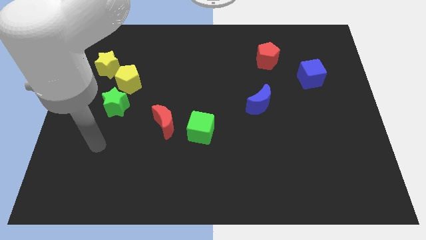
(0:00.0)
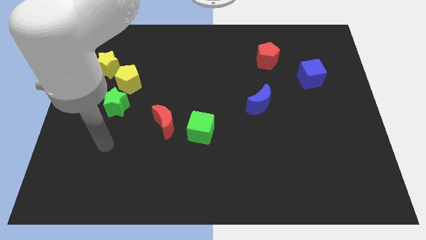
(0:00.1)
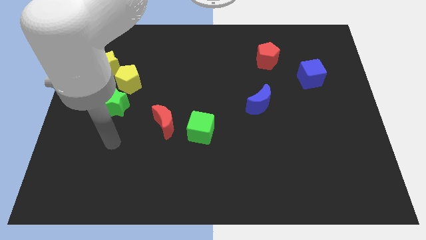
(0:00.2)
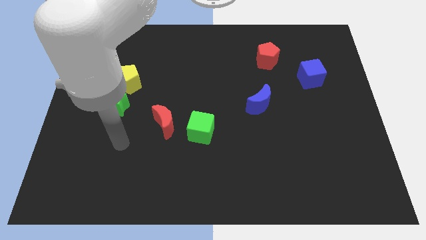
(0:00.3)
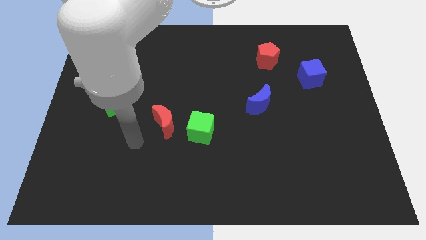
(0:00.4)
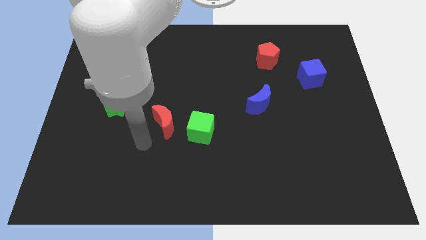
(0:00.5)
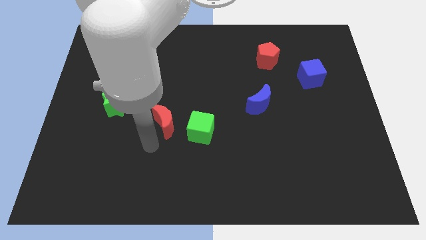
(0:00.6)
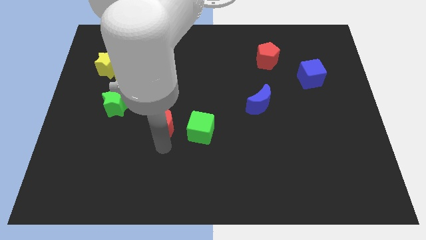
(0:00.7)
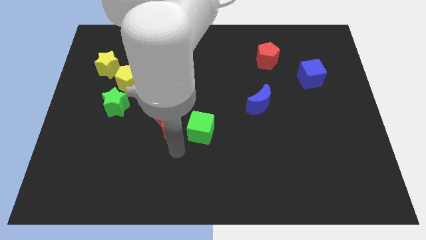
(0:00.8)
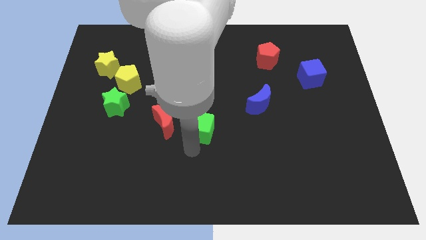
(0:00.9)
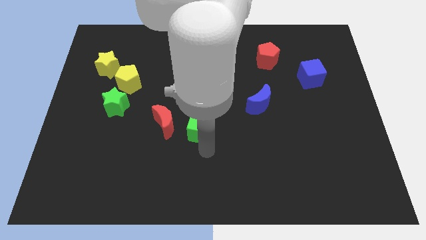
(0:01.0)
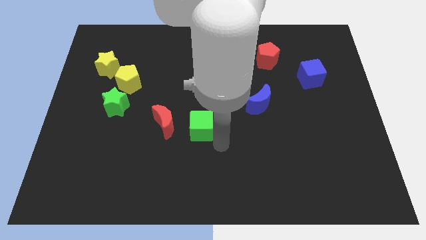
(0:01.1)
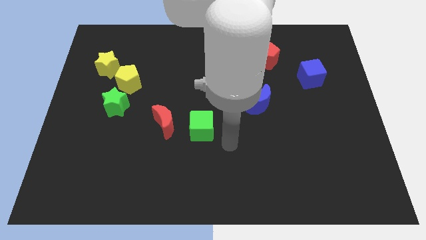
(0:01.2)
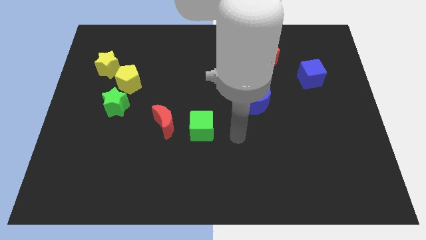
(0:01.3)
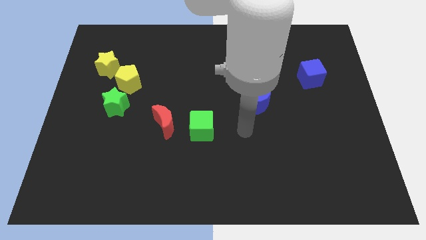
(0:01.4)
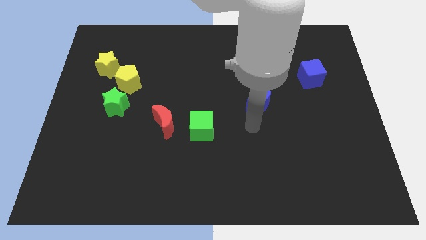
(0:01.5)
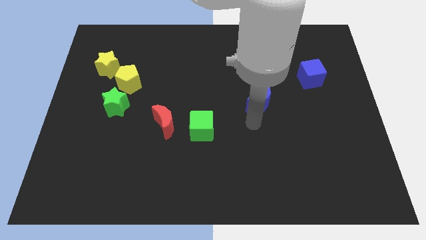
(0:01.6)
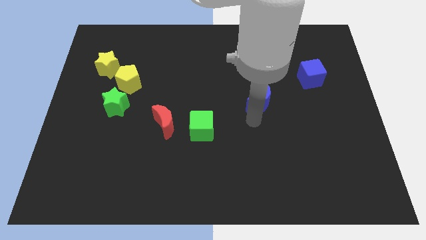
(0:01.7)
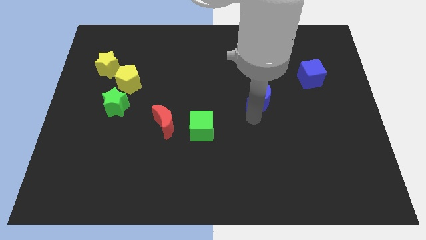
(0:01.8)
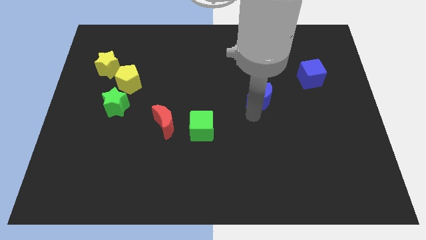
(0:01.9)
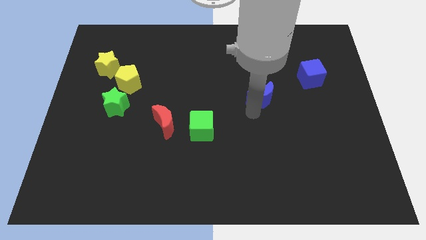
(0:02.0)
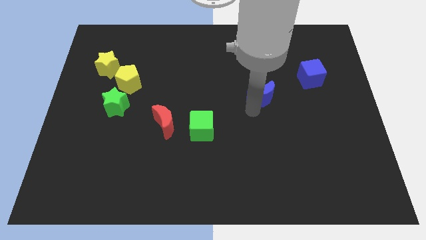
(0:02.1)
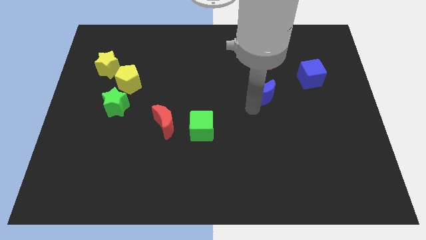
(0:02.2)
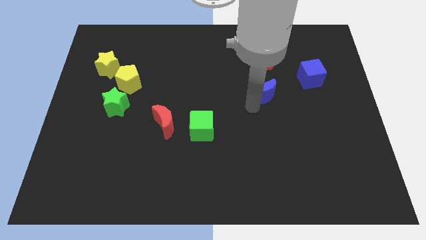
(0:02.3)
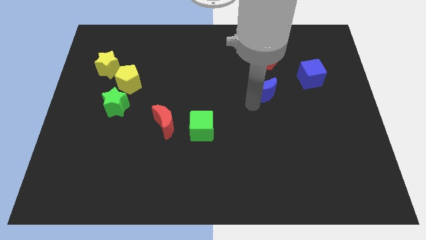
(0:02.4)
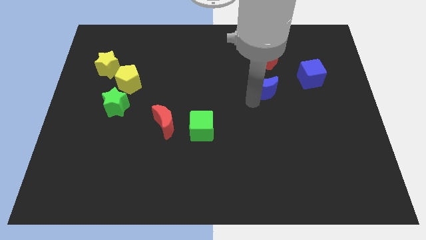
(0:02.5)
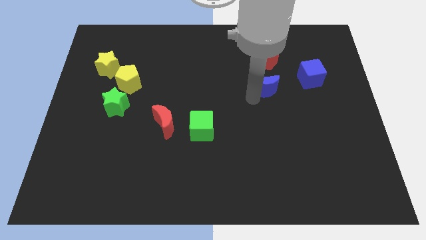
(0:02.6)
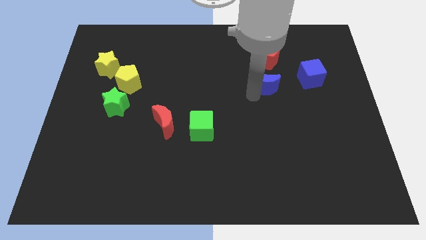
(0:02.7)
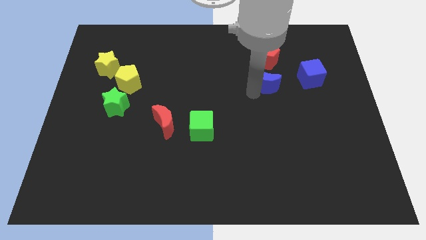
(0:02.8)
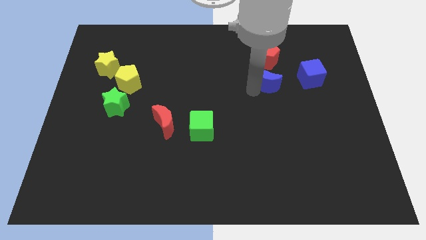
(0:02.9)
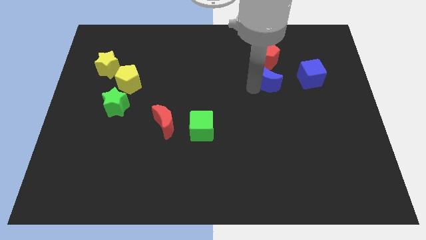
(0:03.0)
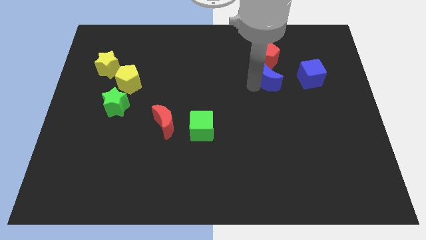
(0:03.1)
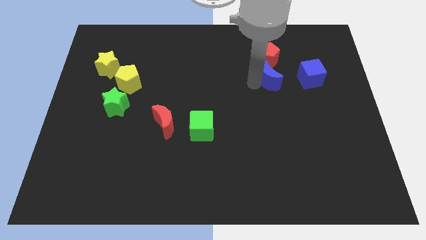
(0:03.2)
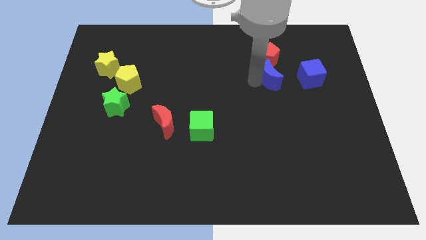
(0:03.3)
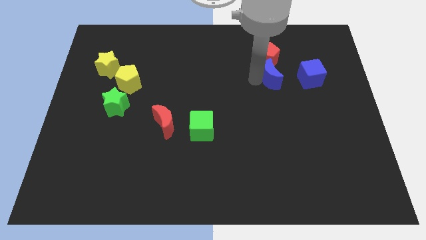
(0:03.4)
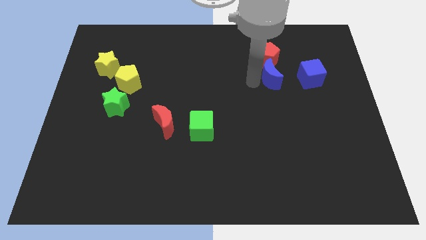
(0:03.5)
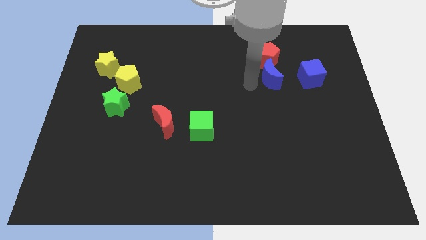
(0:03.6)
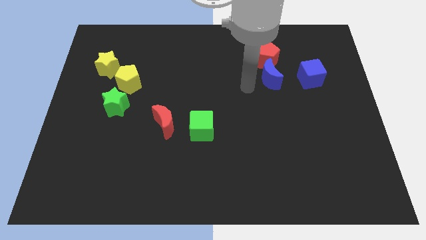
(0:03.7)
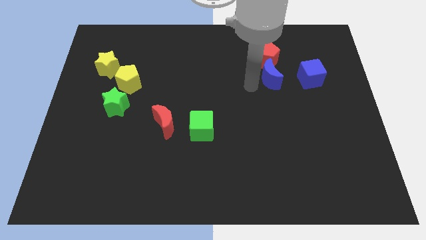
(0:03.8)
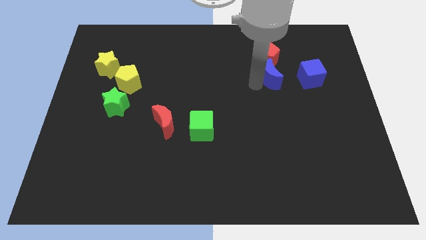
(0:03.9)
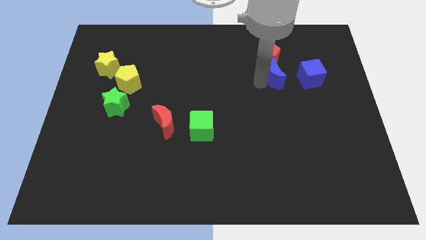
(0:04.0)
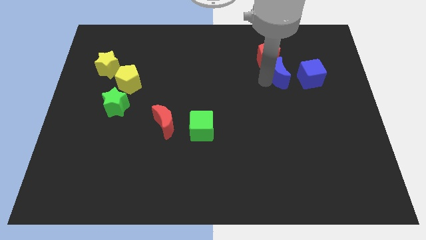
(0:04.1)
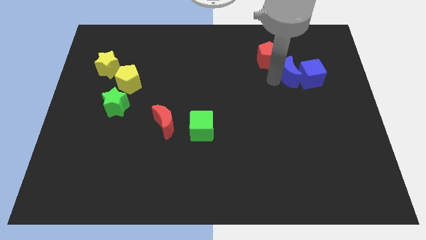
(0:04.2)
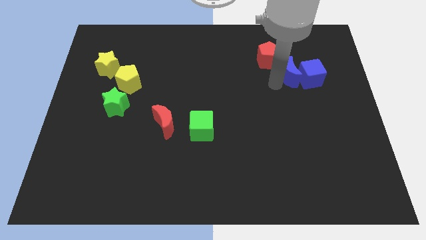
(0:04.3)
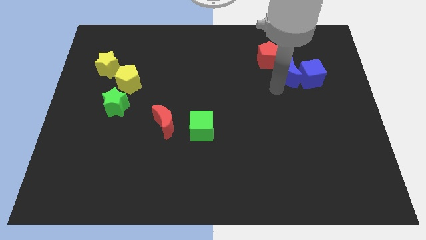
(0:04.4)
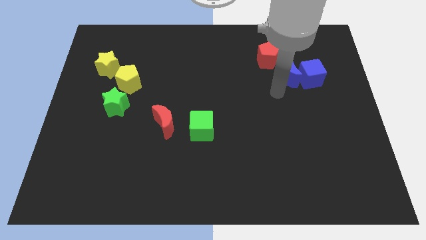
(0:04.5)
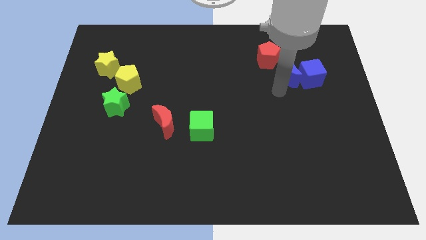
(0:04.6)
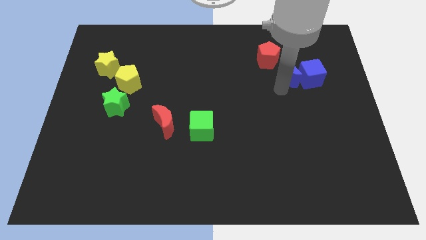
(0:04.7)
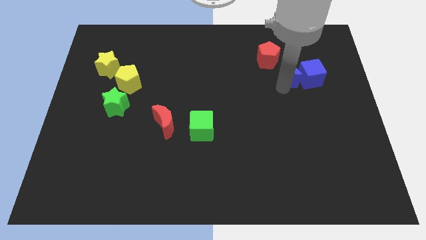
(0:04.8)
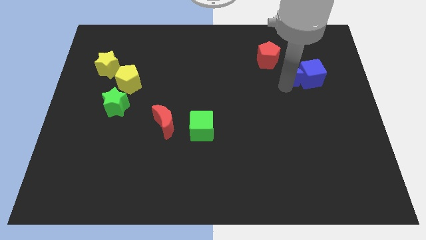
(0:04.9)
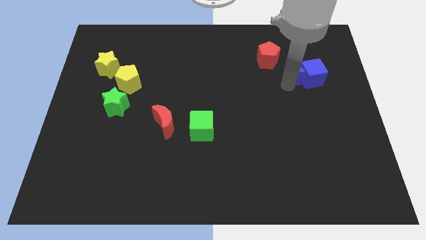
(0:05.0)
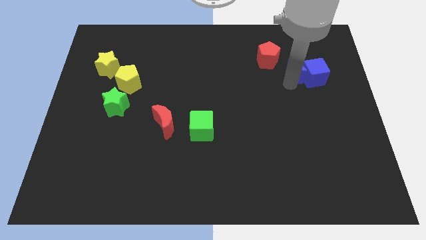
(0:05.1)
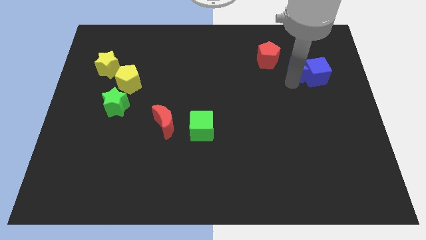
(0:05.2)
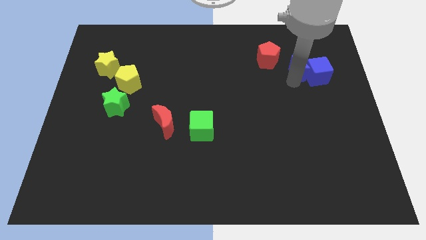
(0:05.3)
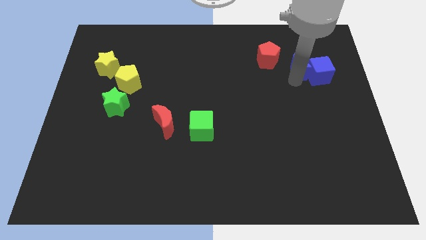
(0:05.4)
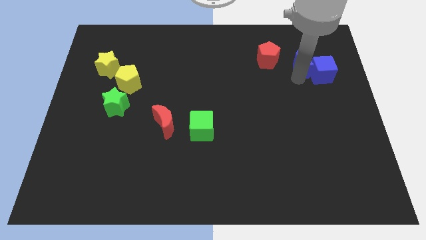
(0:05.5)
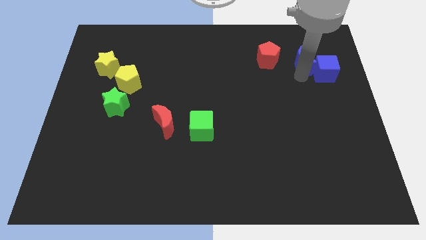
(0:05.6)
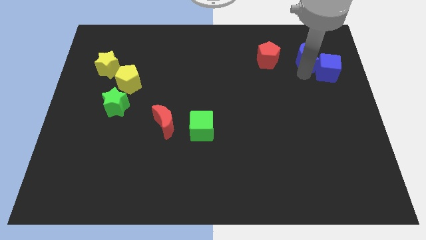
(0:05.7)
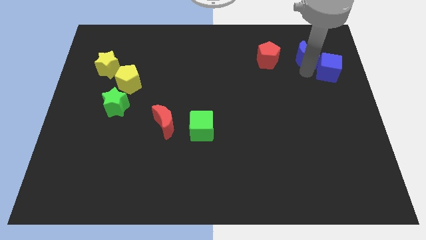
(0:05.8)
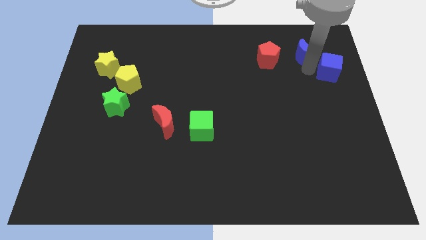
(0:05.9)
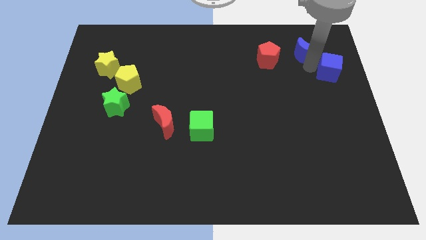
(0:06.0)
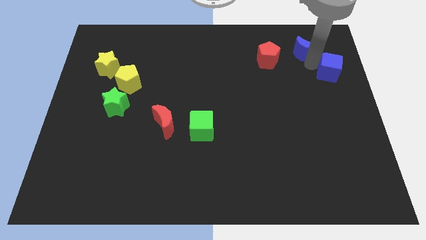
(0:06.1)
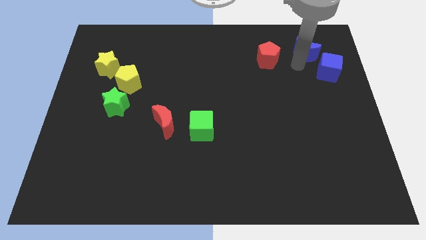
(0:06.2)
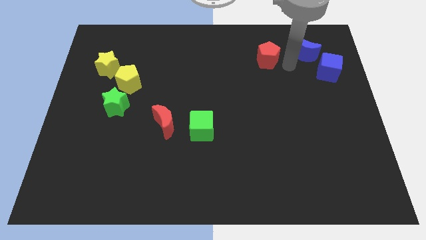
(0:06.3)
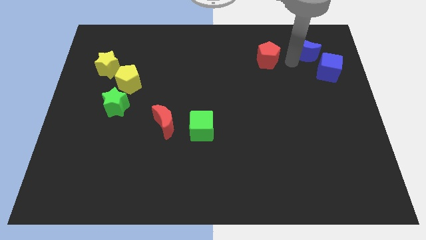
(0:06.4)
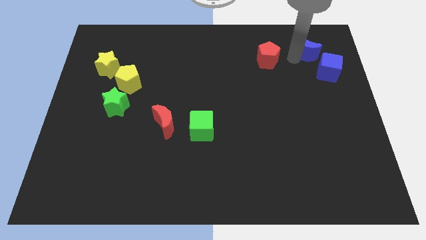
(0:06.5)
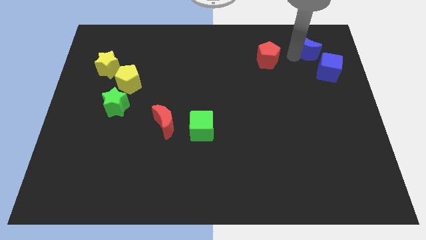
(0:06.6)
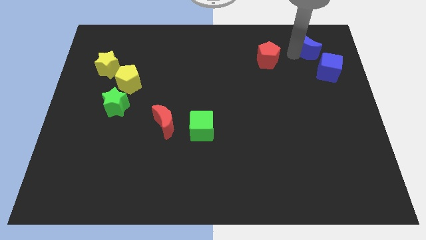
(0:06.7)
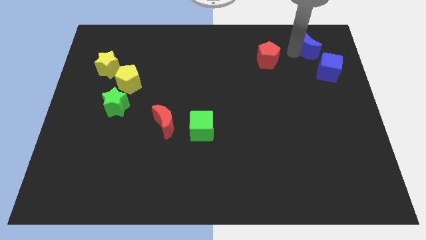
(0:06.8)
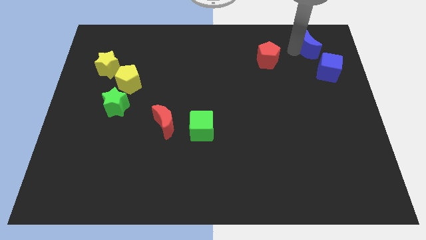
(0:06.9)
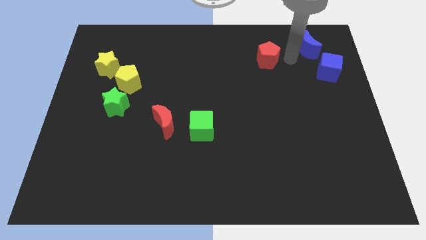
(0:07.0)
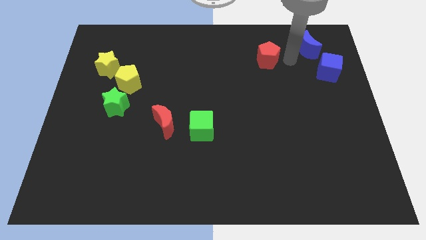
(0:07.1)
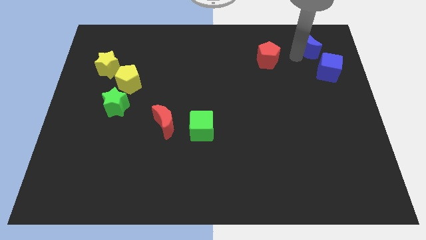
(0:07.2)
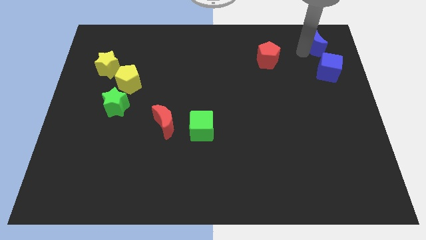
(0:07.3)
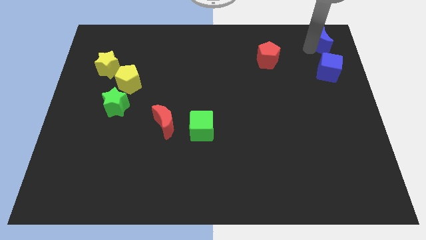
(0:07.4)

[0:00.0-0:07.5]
move the blue moon to the top right
